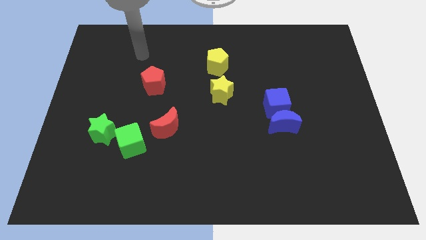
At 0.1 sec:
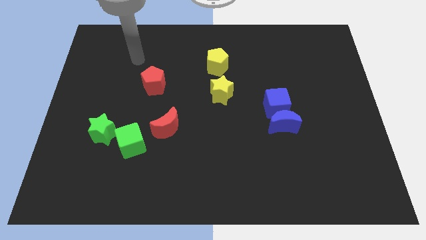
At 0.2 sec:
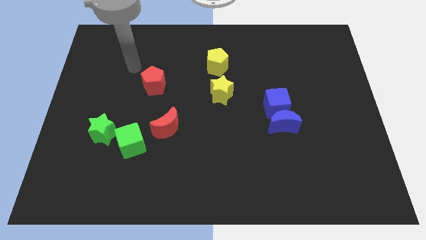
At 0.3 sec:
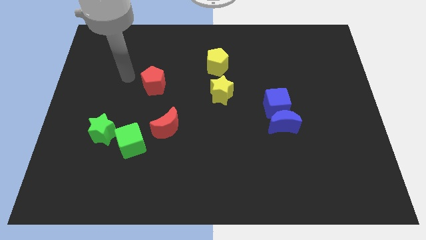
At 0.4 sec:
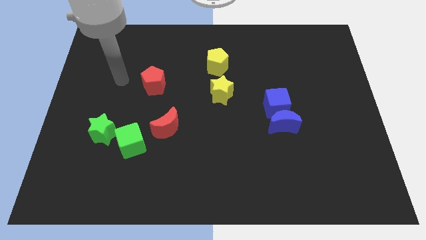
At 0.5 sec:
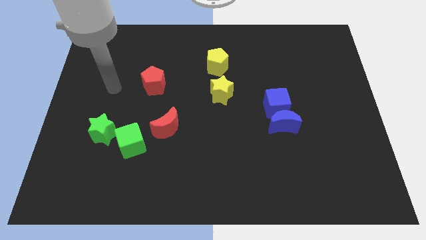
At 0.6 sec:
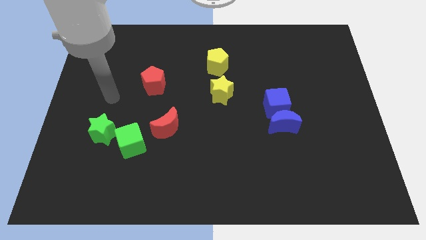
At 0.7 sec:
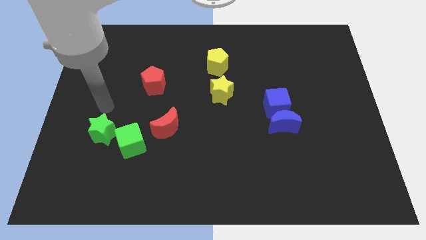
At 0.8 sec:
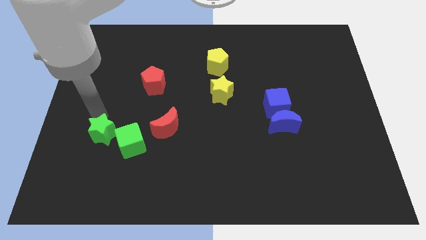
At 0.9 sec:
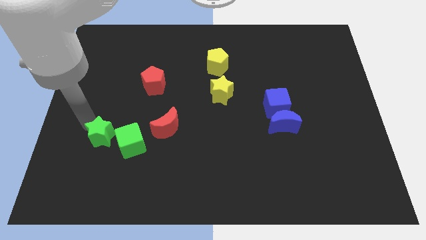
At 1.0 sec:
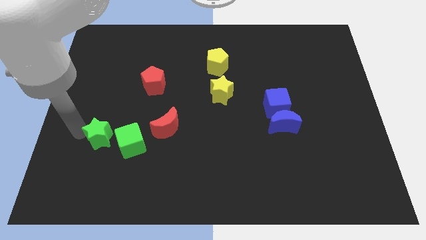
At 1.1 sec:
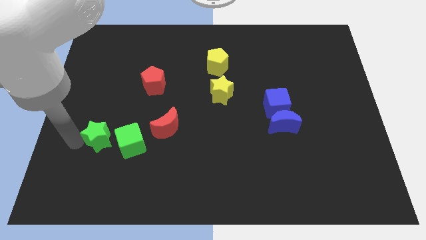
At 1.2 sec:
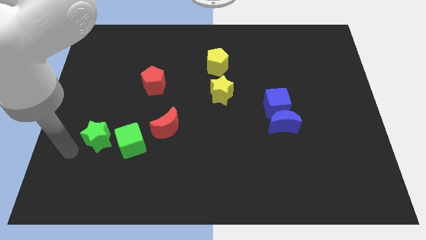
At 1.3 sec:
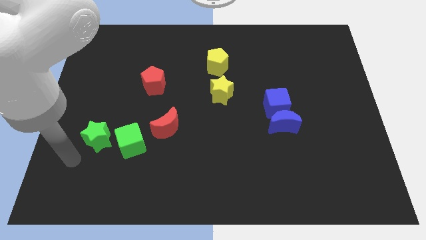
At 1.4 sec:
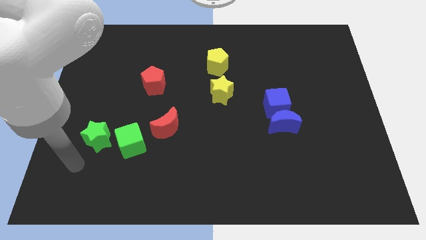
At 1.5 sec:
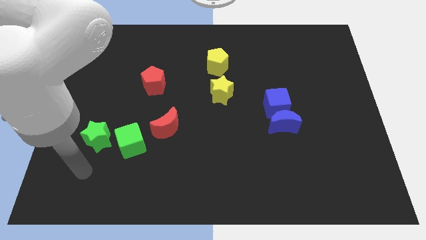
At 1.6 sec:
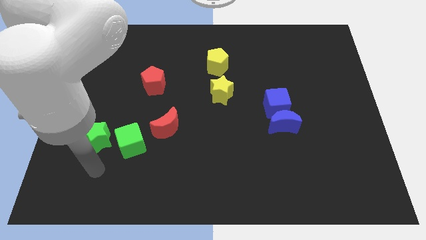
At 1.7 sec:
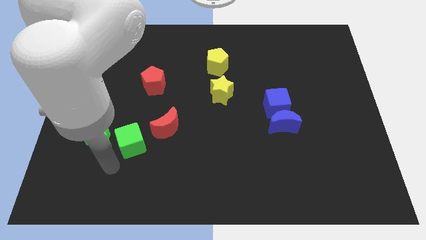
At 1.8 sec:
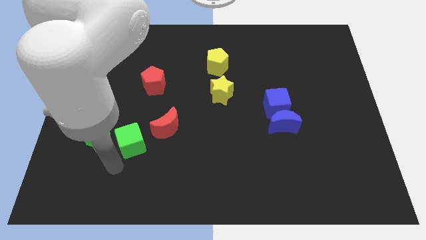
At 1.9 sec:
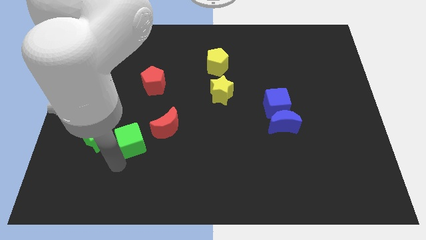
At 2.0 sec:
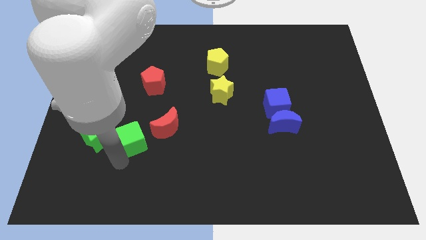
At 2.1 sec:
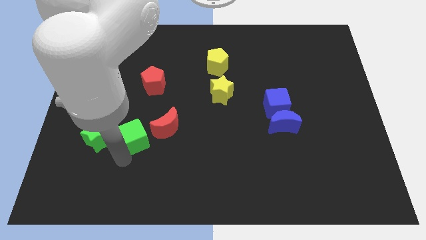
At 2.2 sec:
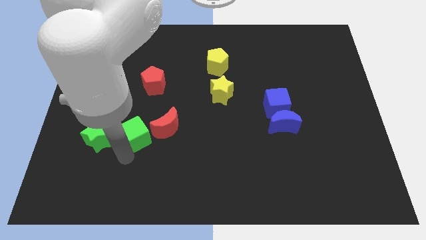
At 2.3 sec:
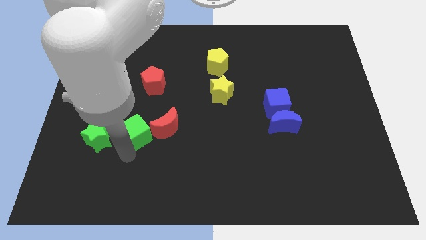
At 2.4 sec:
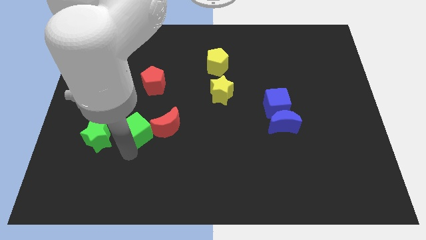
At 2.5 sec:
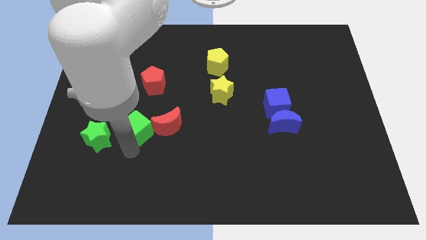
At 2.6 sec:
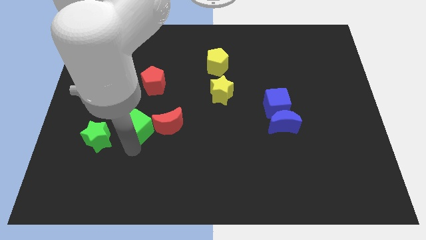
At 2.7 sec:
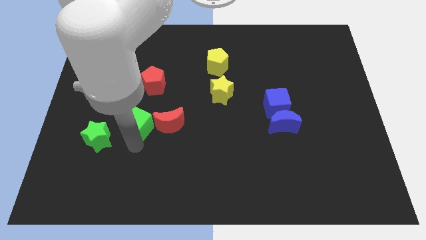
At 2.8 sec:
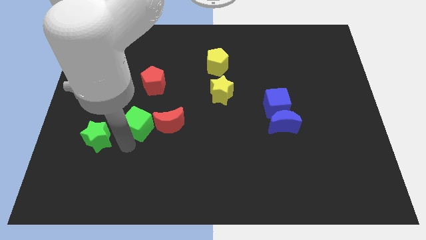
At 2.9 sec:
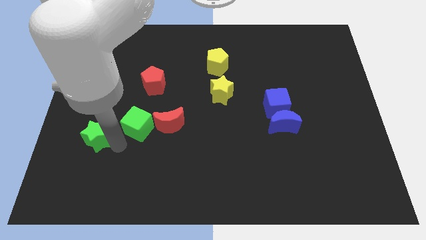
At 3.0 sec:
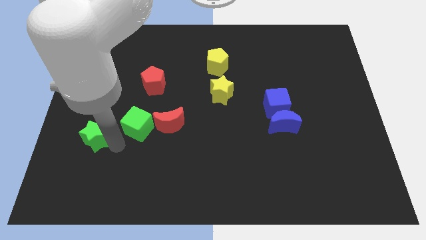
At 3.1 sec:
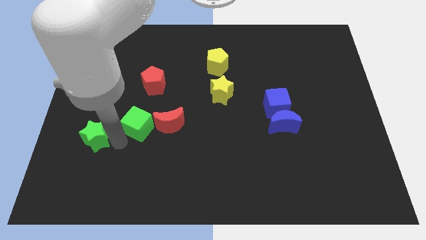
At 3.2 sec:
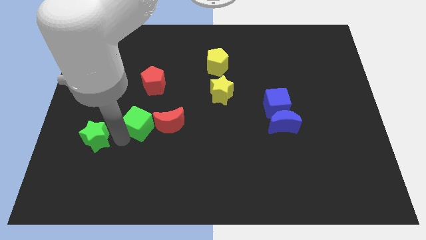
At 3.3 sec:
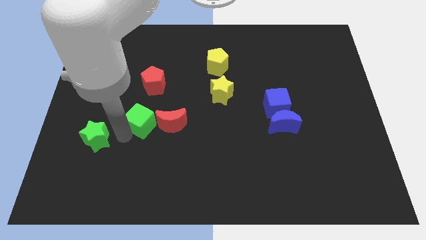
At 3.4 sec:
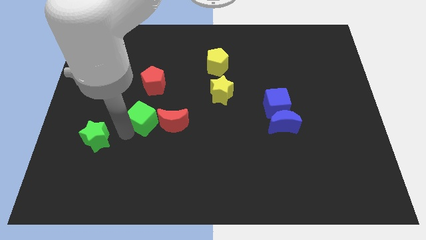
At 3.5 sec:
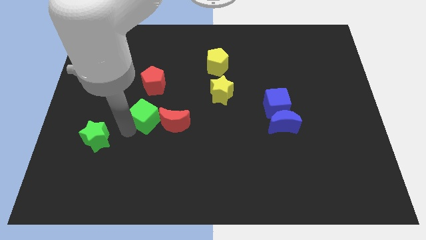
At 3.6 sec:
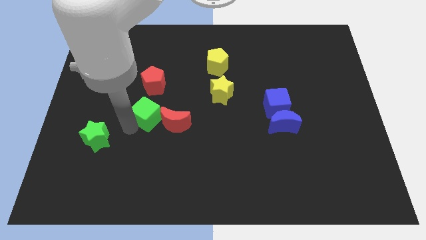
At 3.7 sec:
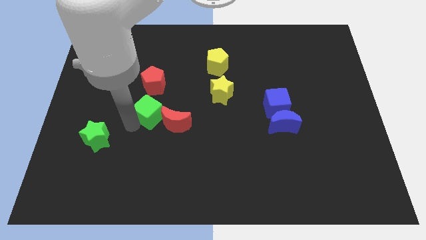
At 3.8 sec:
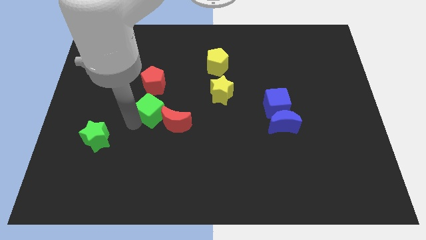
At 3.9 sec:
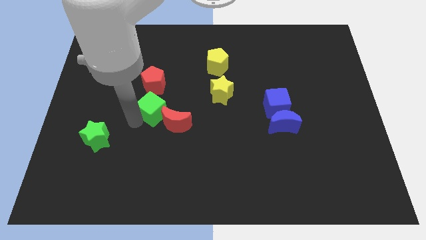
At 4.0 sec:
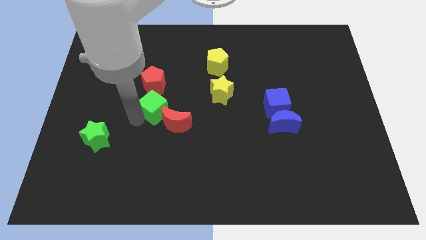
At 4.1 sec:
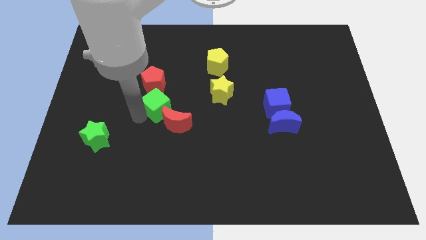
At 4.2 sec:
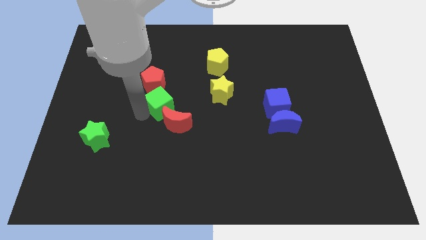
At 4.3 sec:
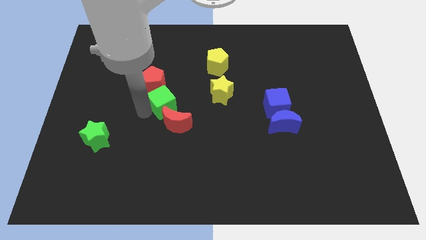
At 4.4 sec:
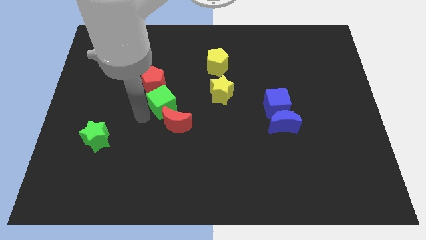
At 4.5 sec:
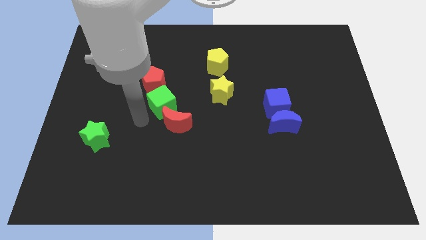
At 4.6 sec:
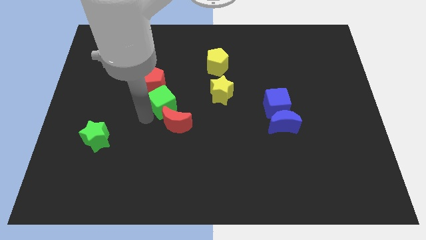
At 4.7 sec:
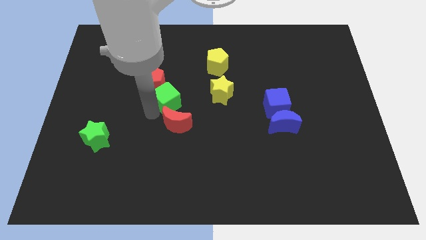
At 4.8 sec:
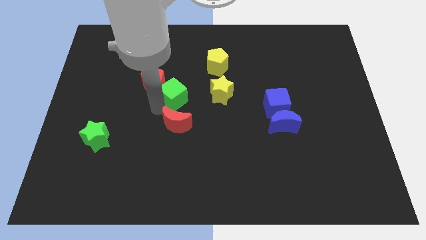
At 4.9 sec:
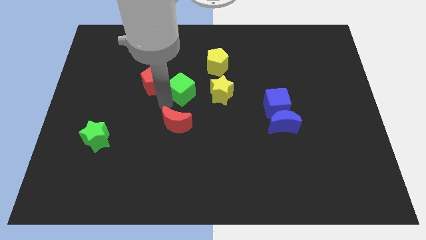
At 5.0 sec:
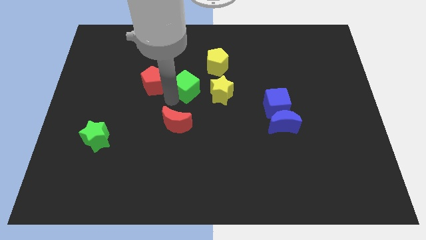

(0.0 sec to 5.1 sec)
move the green cube to the top left side of the yellow star

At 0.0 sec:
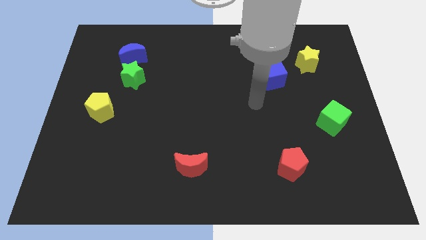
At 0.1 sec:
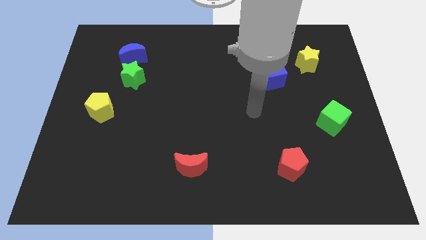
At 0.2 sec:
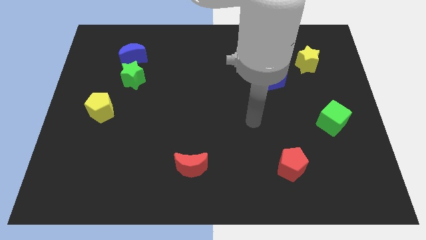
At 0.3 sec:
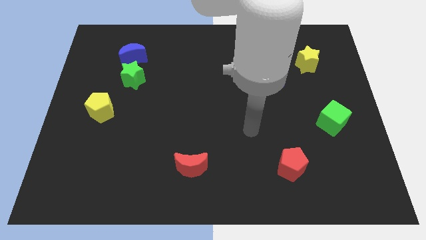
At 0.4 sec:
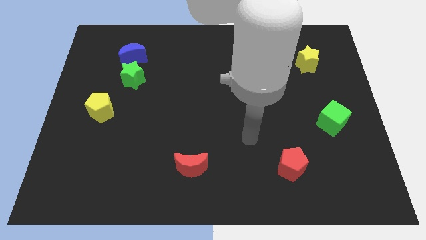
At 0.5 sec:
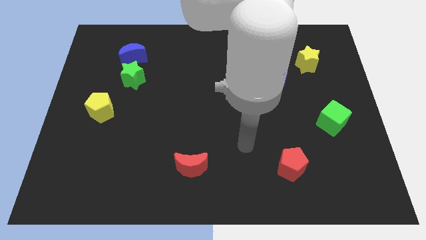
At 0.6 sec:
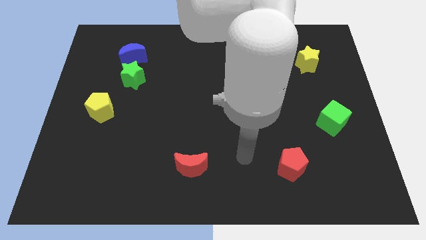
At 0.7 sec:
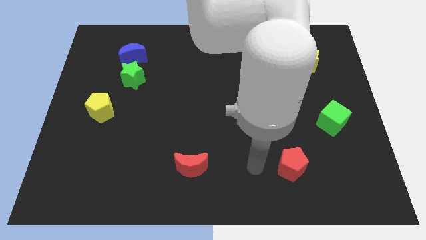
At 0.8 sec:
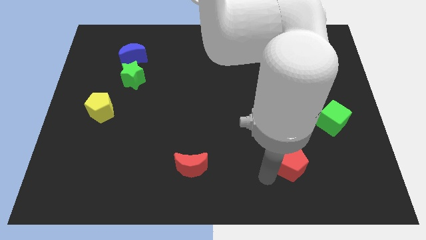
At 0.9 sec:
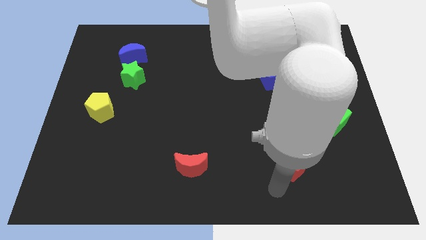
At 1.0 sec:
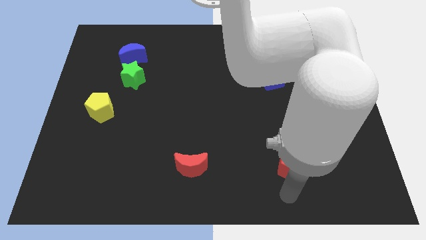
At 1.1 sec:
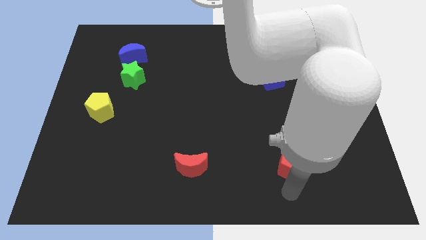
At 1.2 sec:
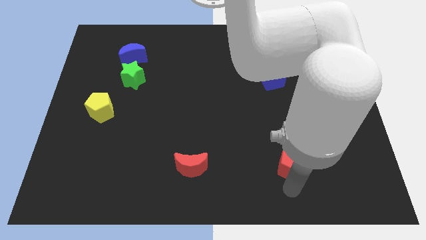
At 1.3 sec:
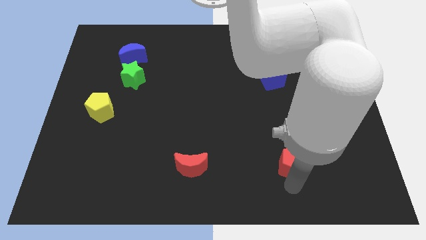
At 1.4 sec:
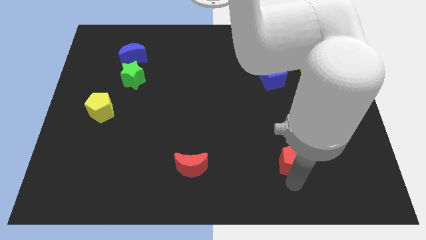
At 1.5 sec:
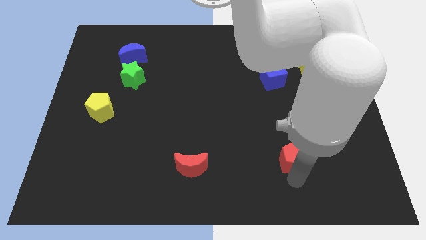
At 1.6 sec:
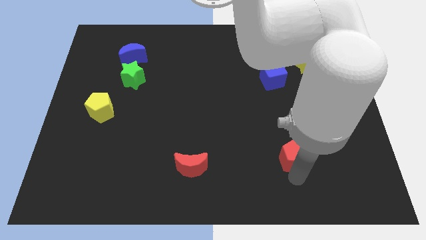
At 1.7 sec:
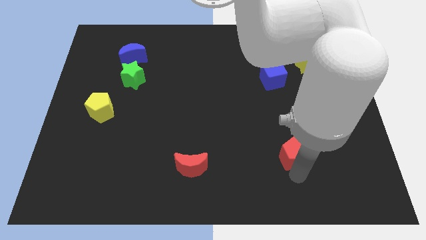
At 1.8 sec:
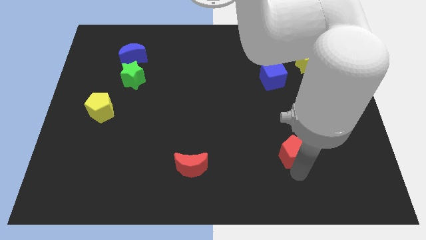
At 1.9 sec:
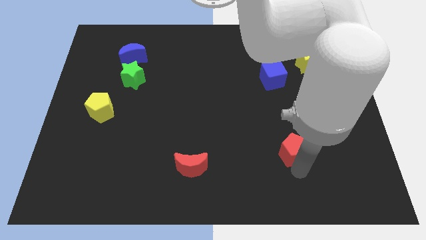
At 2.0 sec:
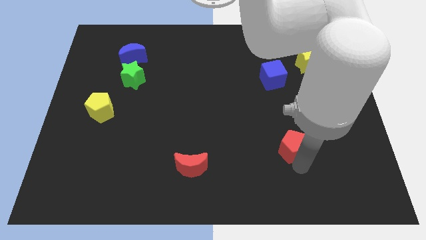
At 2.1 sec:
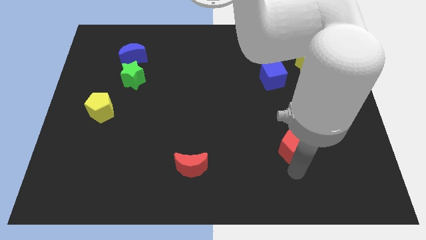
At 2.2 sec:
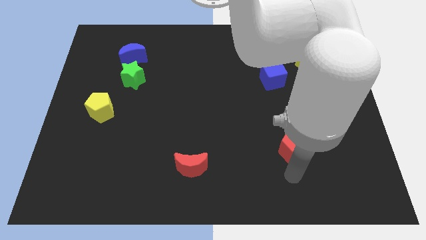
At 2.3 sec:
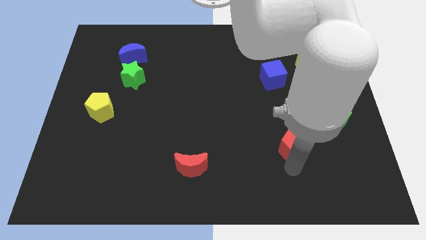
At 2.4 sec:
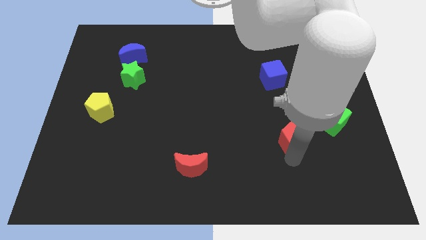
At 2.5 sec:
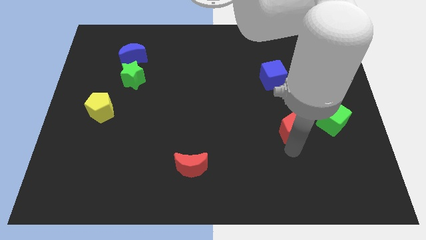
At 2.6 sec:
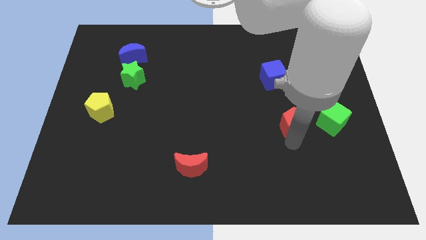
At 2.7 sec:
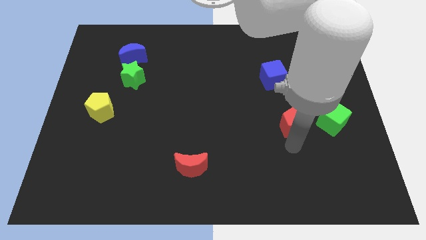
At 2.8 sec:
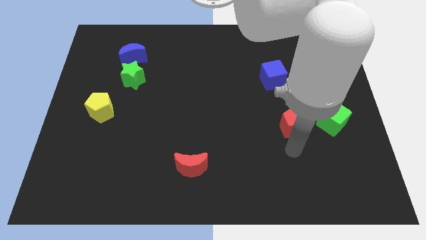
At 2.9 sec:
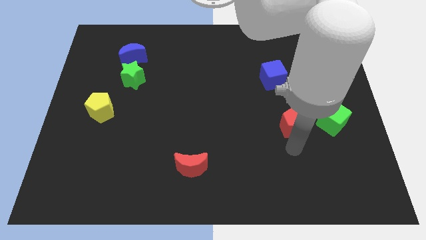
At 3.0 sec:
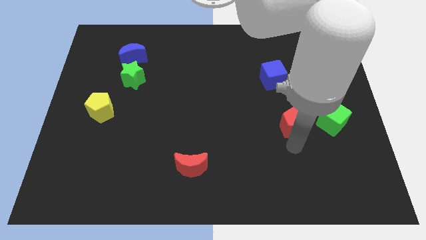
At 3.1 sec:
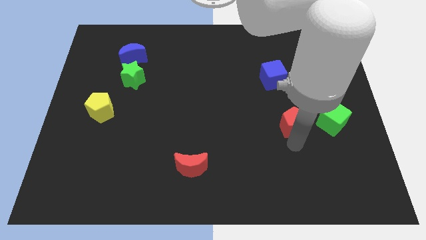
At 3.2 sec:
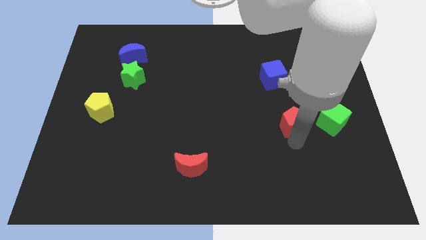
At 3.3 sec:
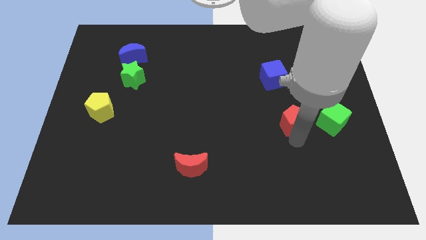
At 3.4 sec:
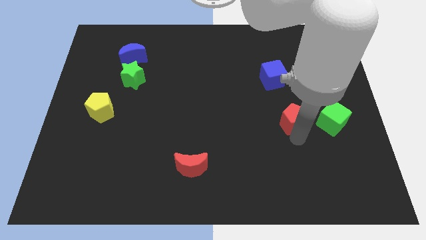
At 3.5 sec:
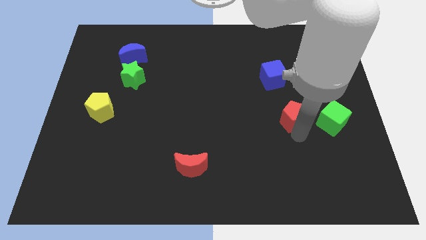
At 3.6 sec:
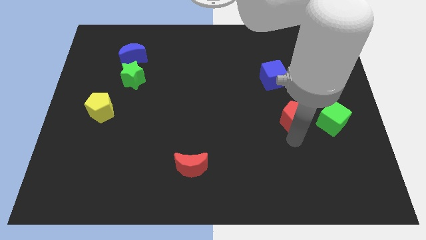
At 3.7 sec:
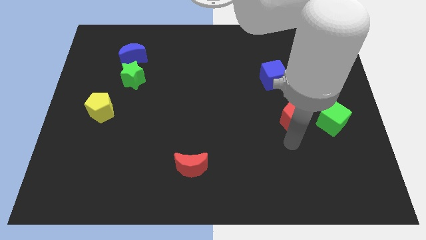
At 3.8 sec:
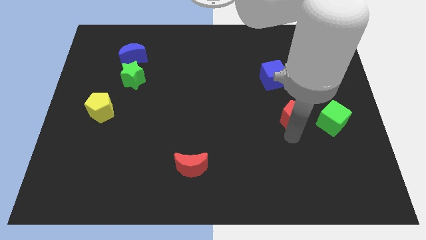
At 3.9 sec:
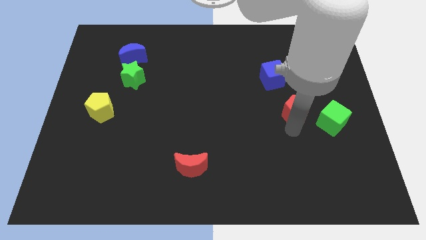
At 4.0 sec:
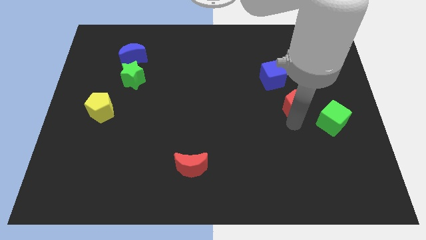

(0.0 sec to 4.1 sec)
push the red pentagon diagonally down and to the right of the blue cube
